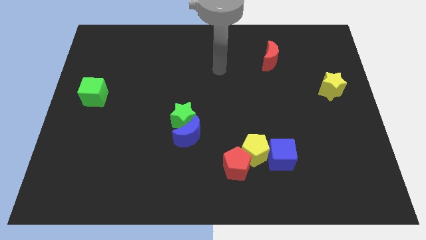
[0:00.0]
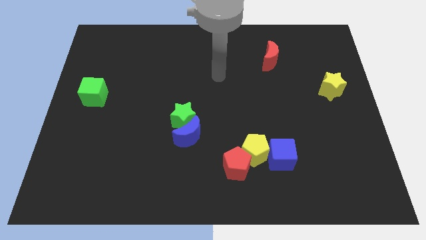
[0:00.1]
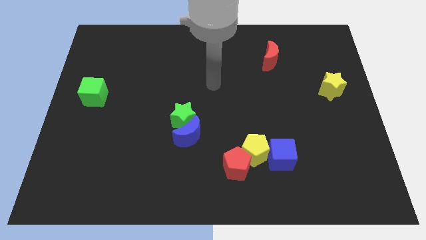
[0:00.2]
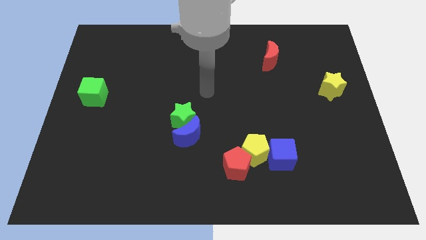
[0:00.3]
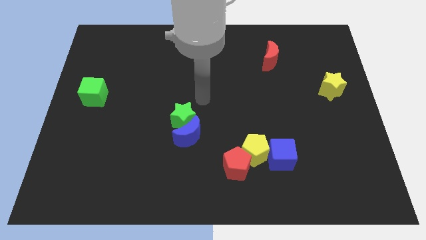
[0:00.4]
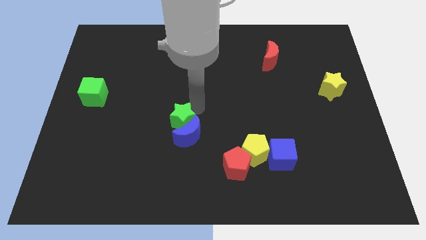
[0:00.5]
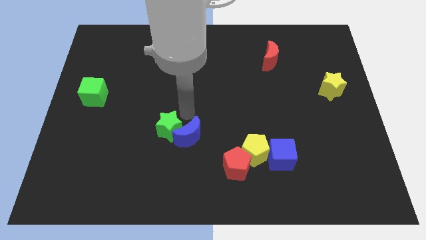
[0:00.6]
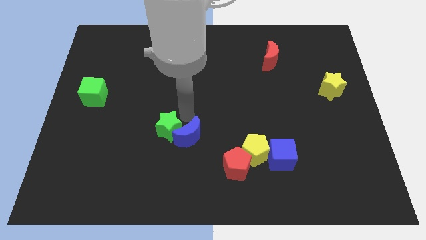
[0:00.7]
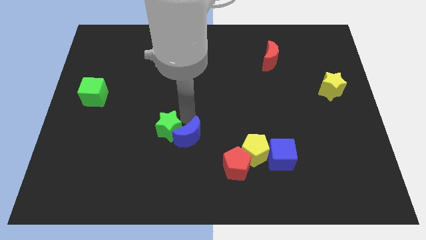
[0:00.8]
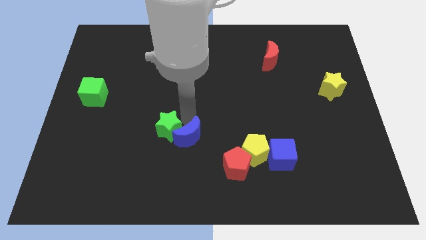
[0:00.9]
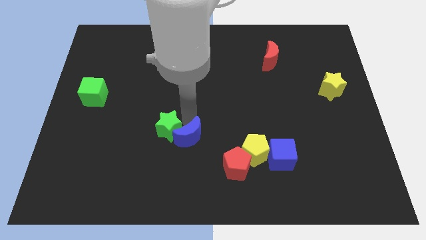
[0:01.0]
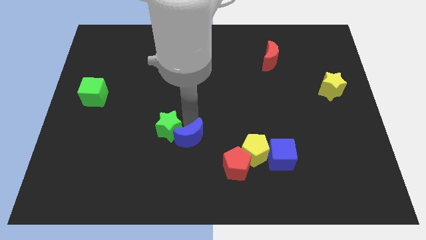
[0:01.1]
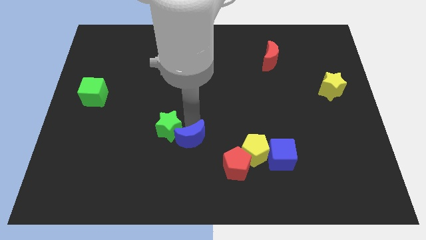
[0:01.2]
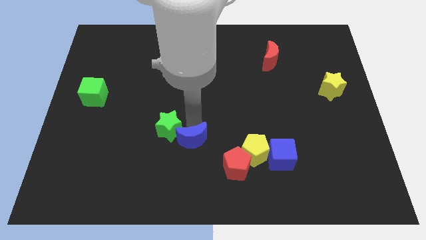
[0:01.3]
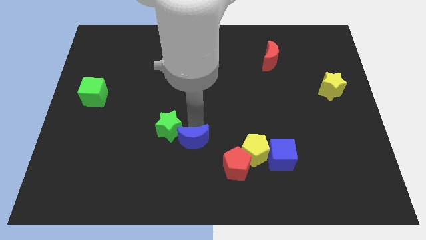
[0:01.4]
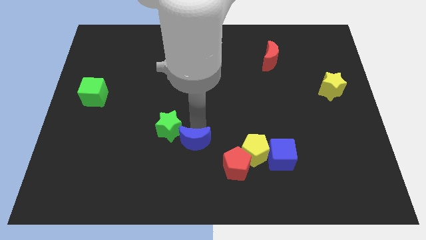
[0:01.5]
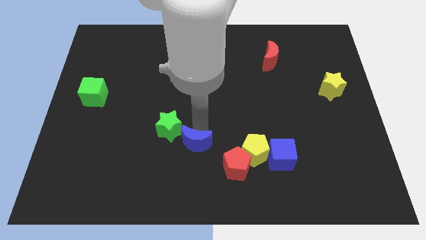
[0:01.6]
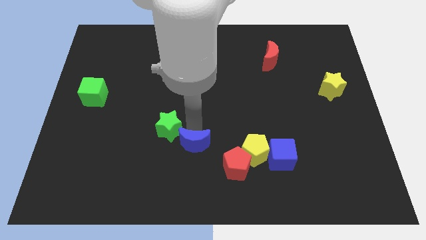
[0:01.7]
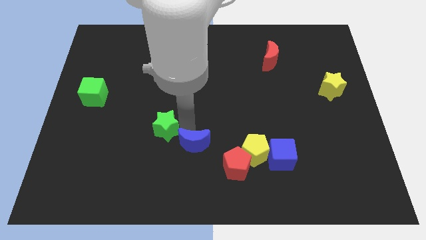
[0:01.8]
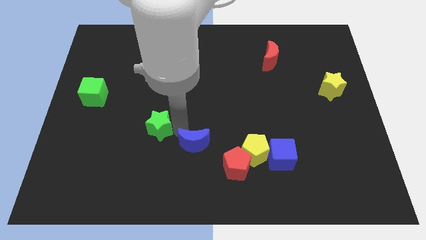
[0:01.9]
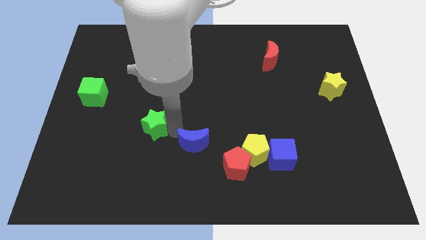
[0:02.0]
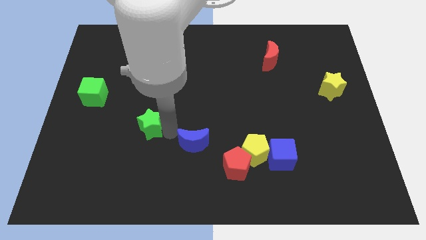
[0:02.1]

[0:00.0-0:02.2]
separate the blue moon from the green star

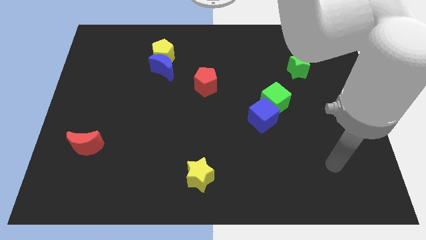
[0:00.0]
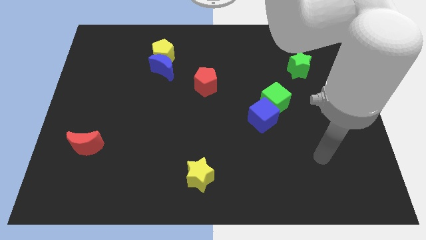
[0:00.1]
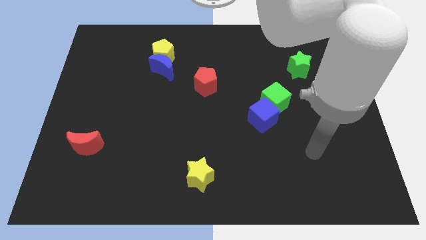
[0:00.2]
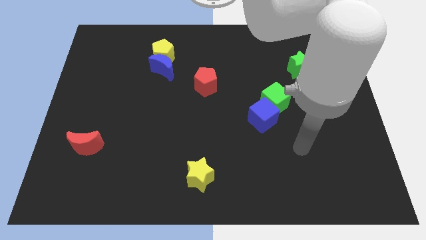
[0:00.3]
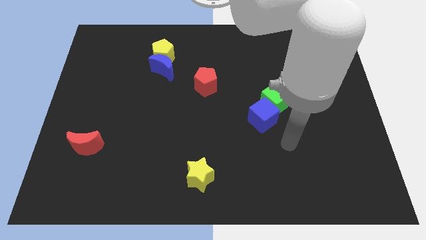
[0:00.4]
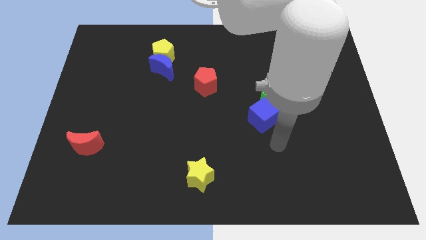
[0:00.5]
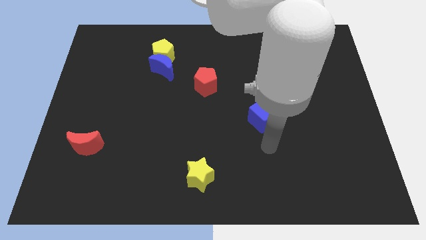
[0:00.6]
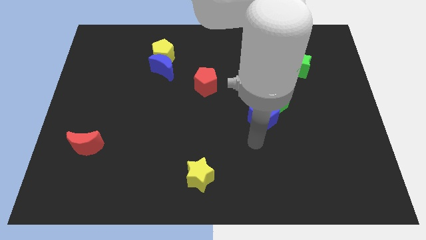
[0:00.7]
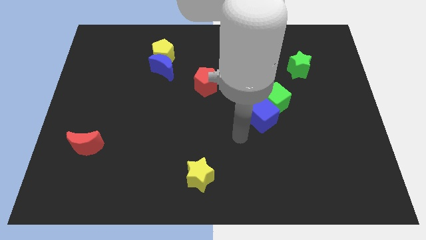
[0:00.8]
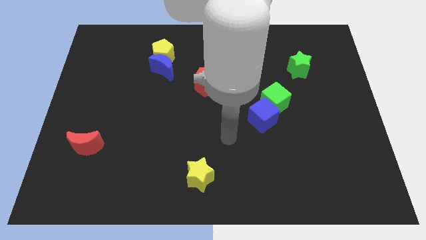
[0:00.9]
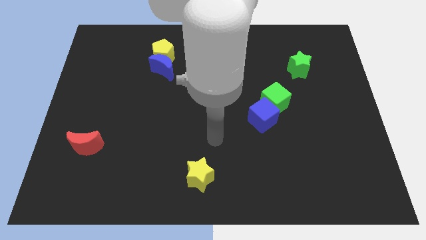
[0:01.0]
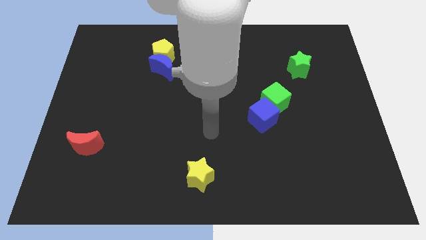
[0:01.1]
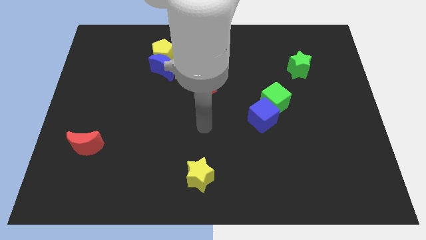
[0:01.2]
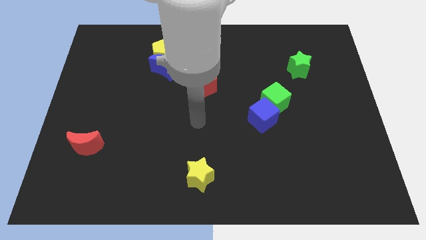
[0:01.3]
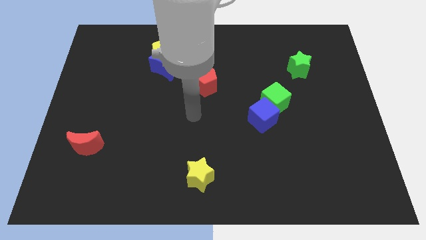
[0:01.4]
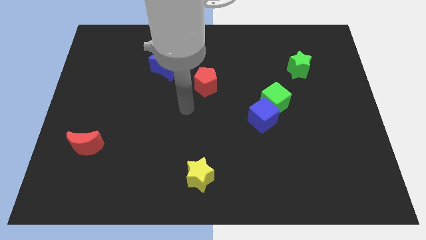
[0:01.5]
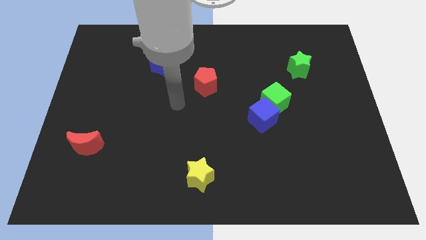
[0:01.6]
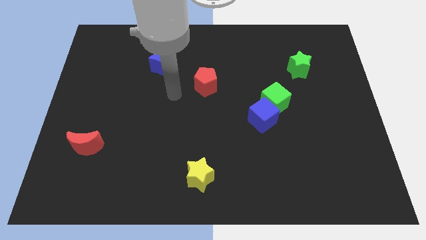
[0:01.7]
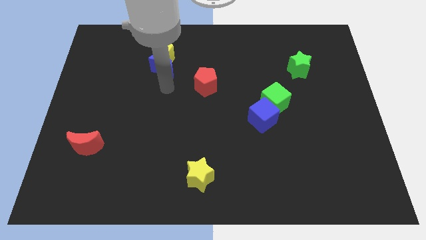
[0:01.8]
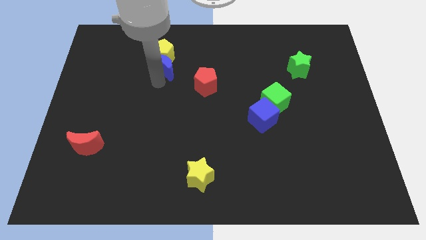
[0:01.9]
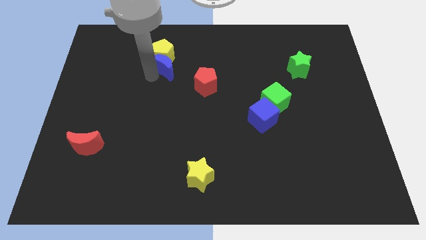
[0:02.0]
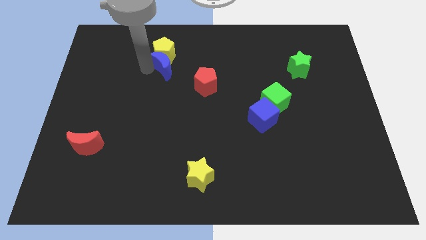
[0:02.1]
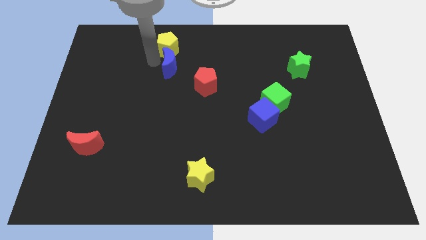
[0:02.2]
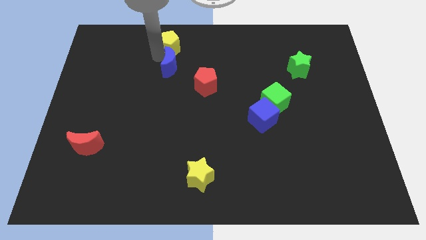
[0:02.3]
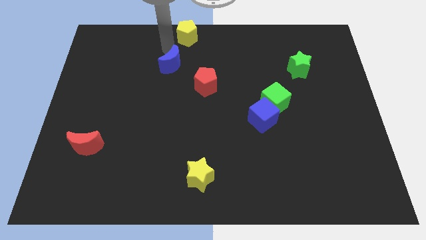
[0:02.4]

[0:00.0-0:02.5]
separate the blue moon from the yellow pentagon

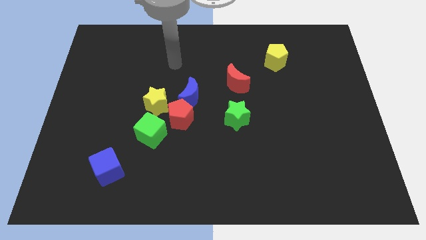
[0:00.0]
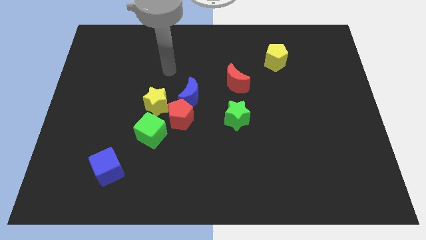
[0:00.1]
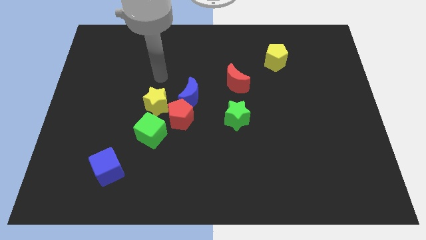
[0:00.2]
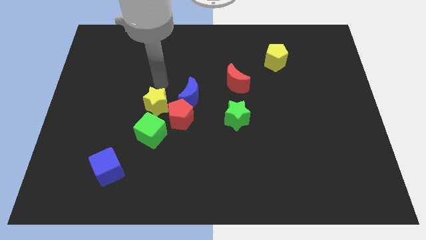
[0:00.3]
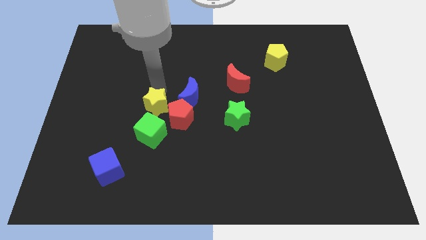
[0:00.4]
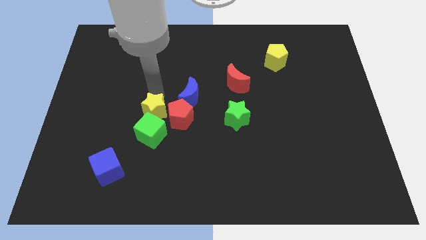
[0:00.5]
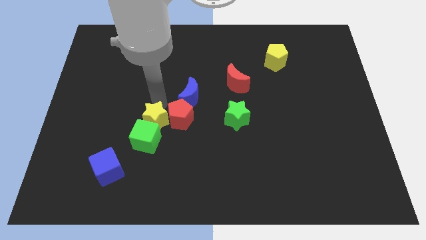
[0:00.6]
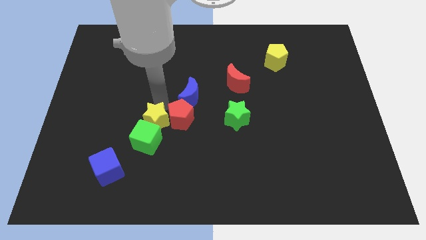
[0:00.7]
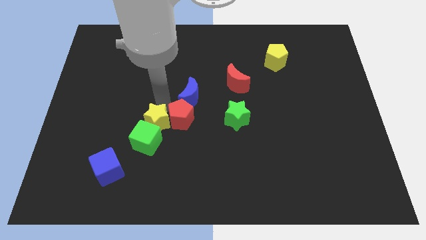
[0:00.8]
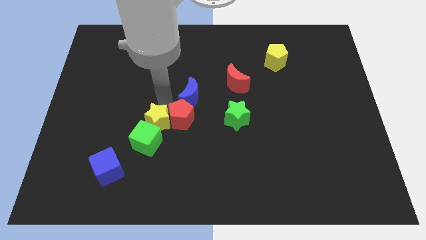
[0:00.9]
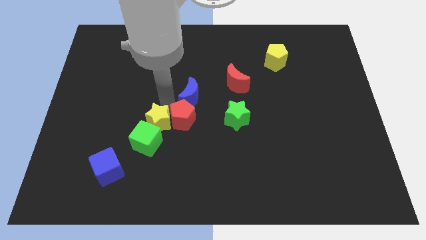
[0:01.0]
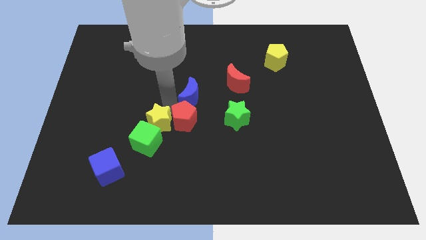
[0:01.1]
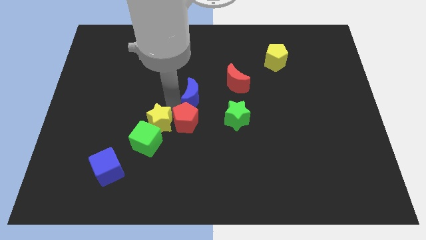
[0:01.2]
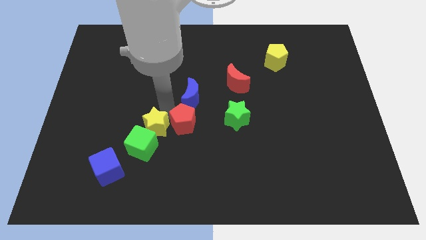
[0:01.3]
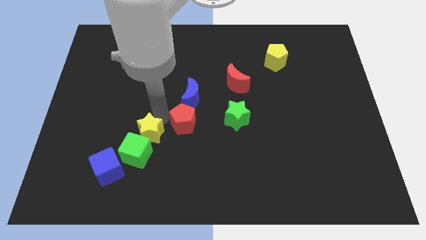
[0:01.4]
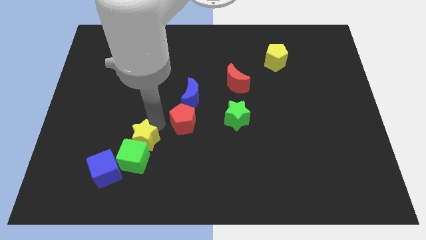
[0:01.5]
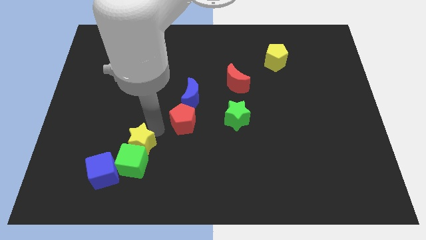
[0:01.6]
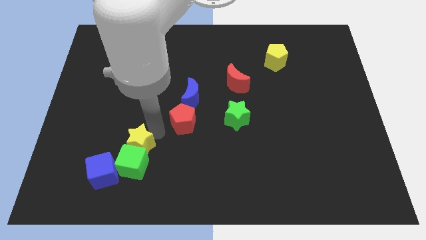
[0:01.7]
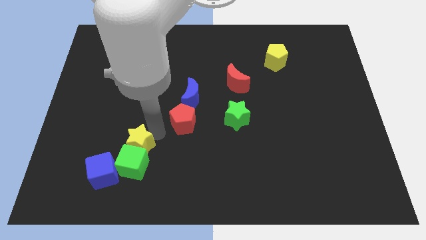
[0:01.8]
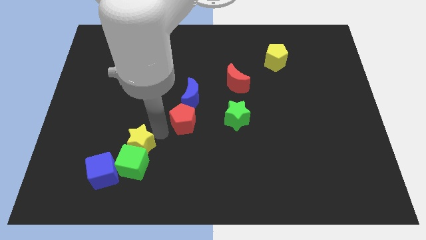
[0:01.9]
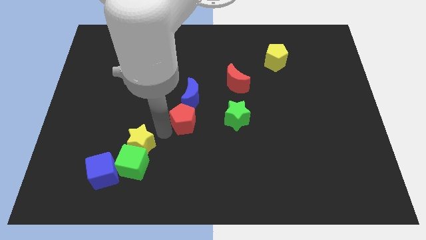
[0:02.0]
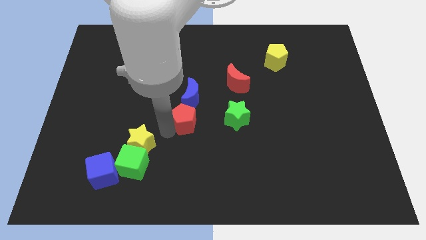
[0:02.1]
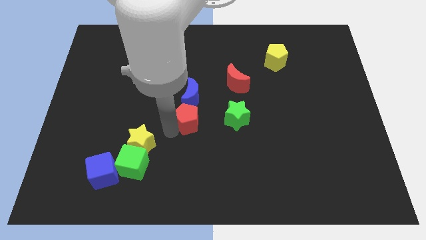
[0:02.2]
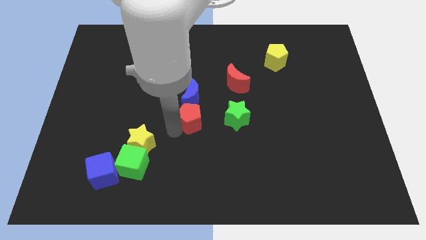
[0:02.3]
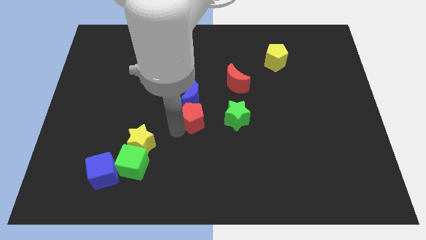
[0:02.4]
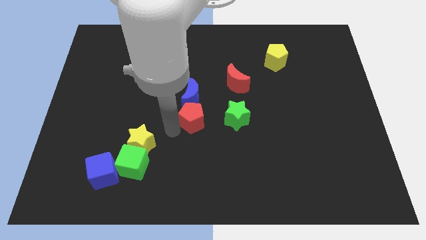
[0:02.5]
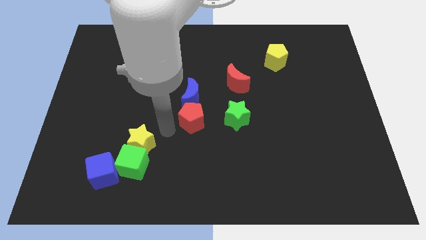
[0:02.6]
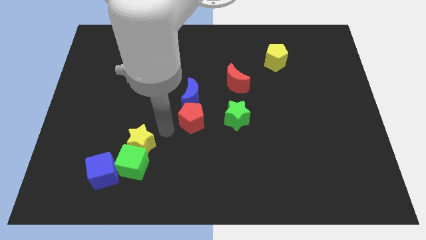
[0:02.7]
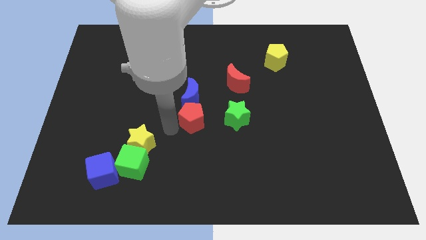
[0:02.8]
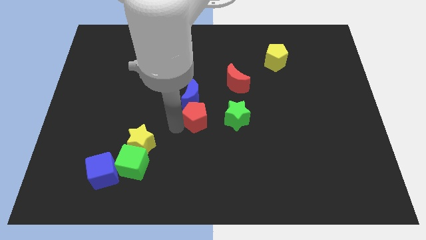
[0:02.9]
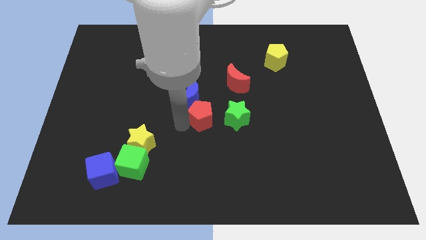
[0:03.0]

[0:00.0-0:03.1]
separate the red pentagon from the clump

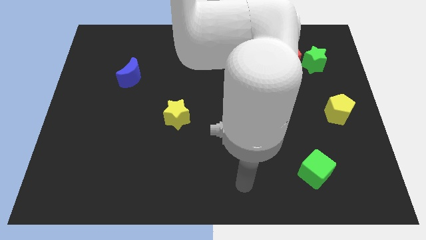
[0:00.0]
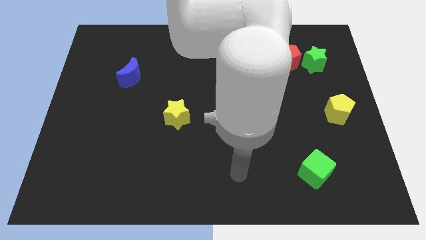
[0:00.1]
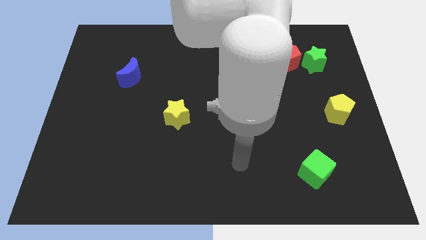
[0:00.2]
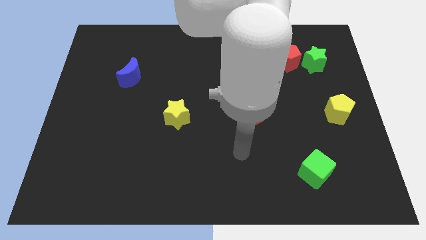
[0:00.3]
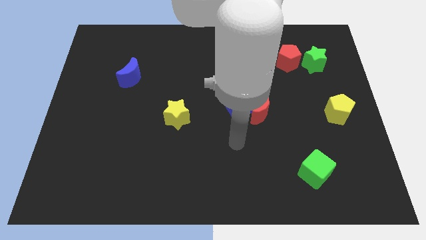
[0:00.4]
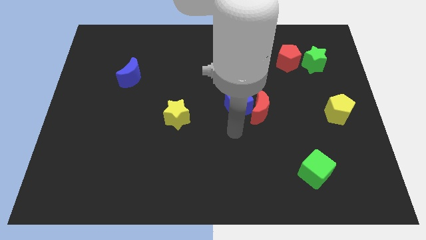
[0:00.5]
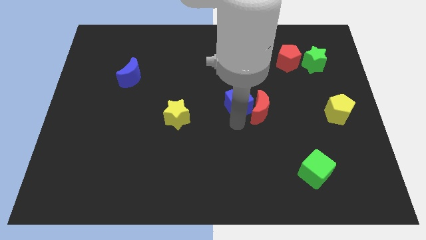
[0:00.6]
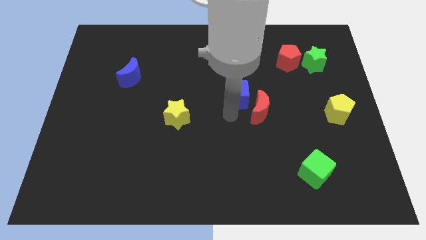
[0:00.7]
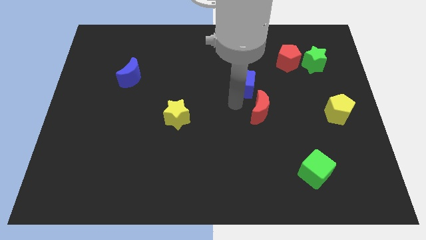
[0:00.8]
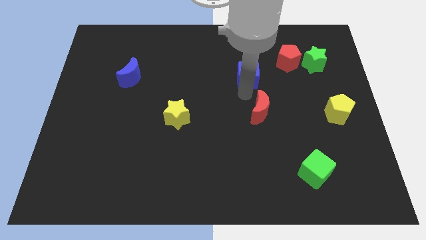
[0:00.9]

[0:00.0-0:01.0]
separate the red moon from the blue cube

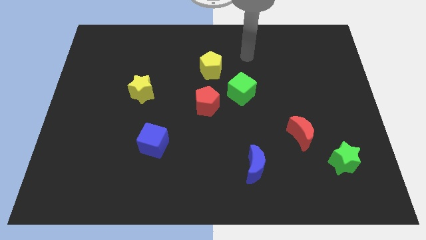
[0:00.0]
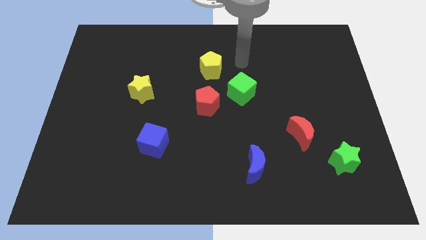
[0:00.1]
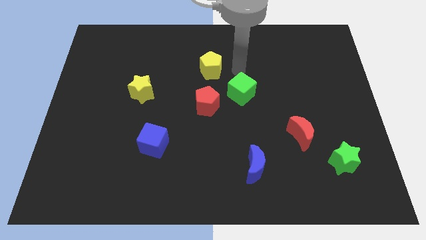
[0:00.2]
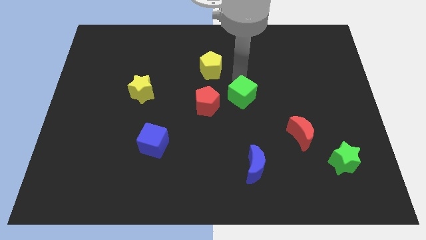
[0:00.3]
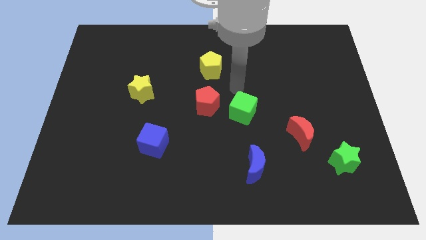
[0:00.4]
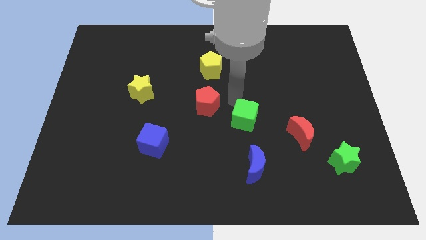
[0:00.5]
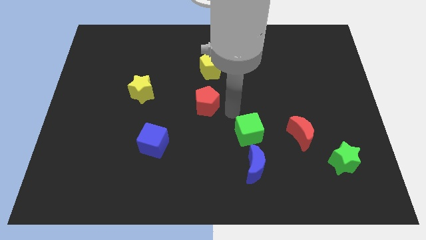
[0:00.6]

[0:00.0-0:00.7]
pull the red pentagon apart from the green cube
